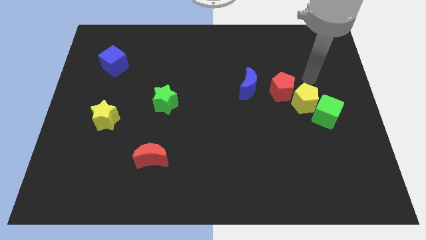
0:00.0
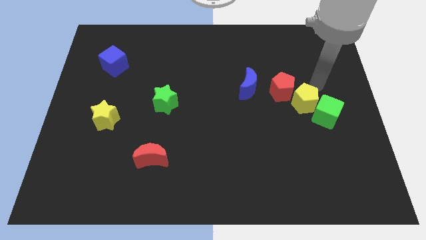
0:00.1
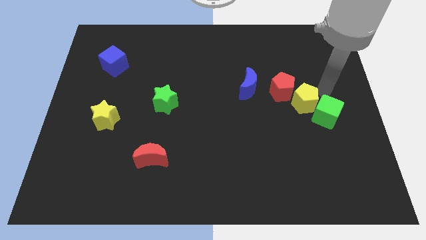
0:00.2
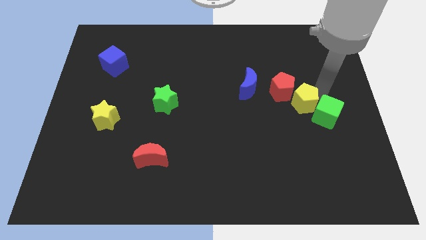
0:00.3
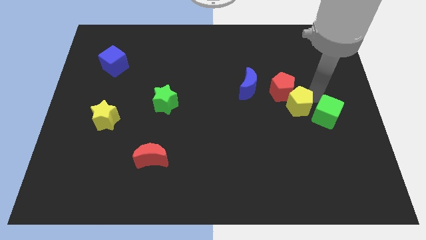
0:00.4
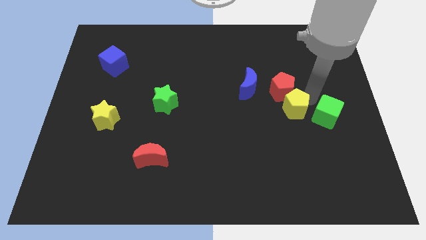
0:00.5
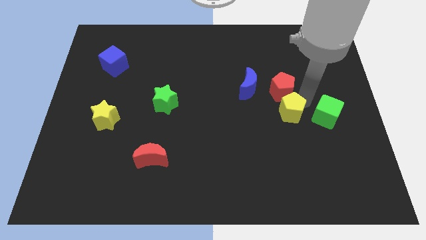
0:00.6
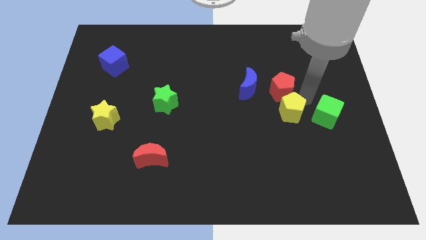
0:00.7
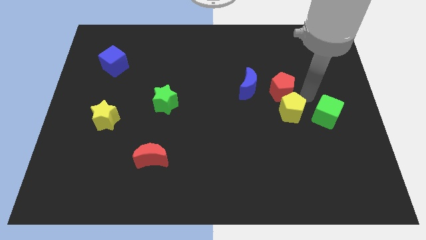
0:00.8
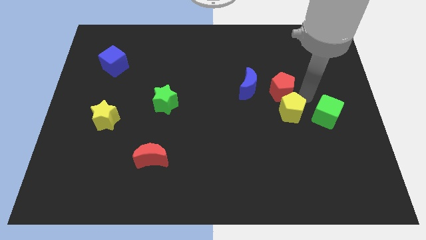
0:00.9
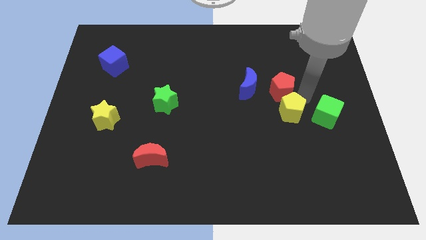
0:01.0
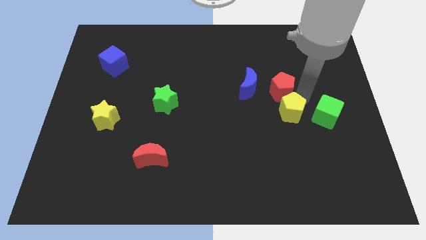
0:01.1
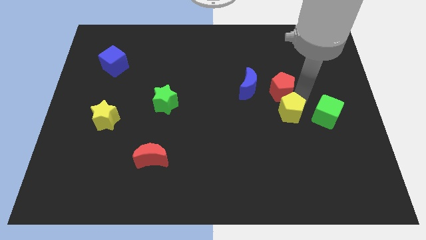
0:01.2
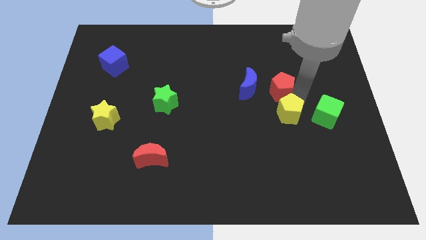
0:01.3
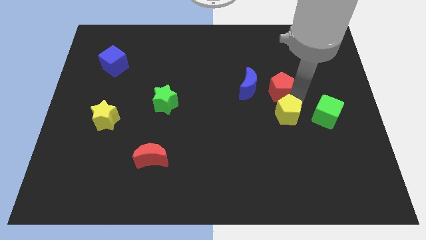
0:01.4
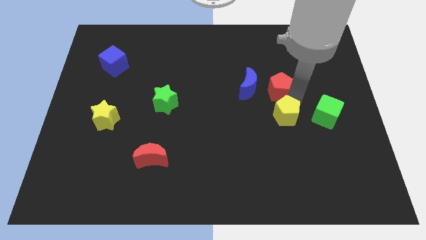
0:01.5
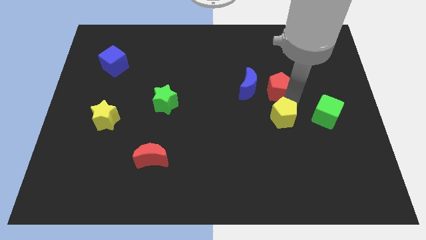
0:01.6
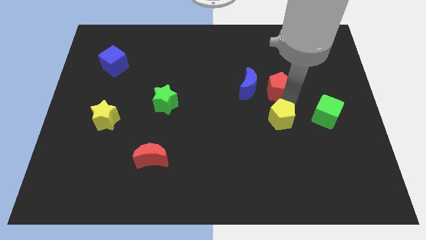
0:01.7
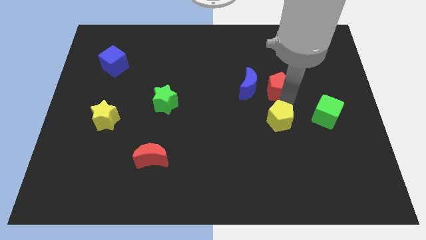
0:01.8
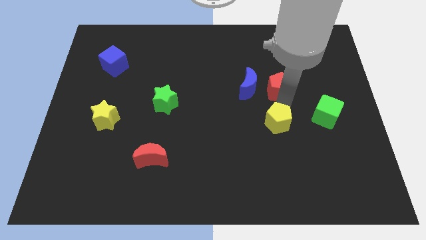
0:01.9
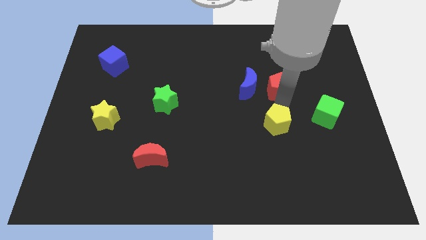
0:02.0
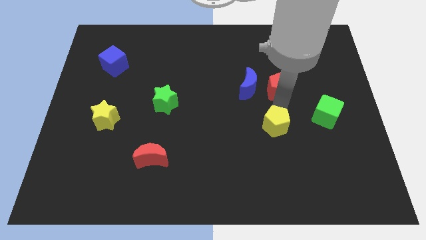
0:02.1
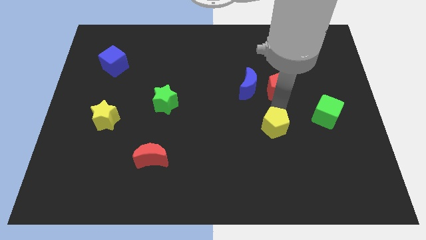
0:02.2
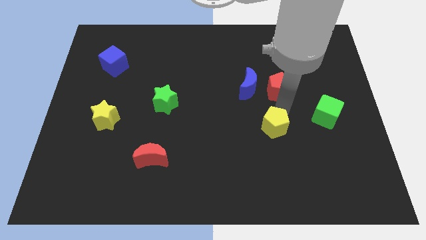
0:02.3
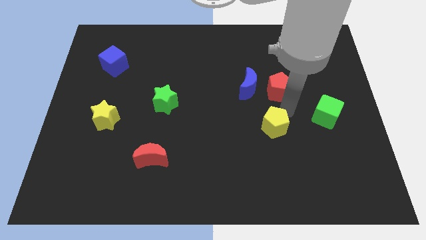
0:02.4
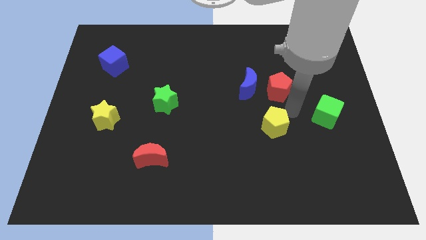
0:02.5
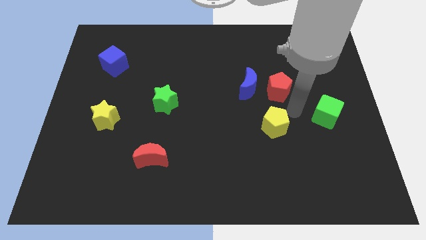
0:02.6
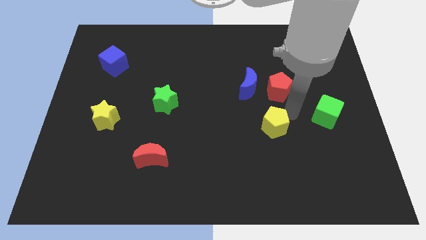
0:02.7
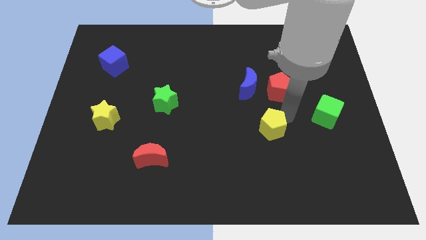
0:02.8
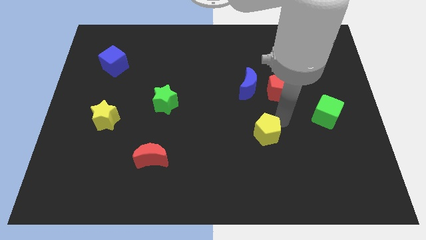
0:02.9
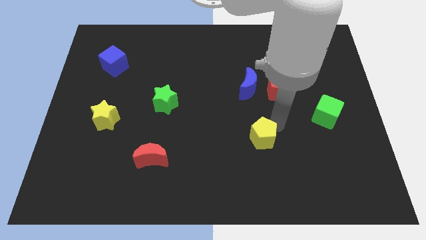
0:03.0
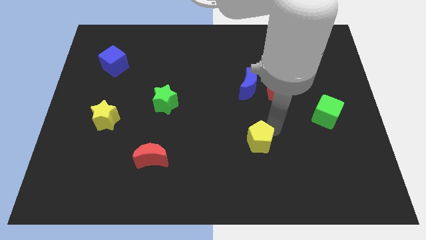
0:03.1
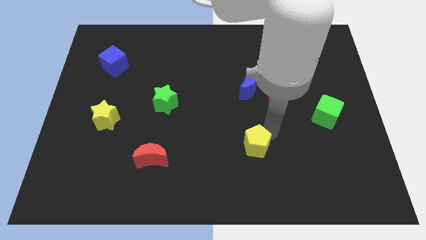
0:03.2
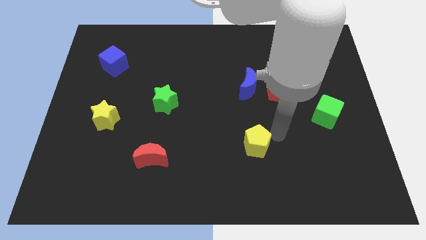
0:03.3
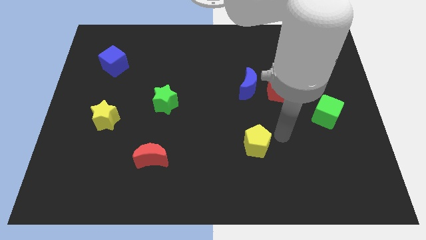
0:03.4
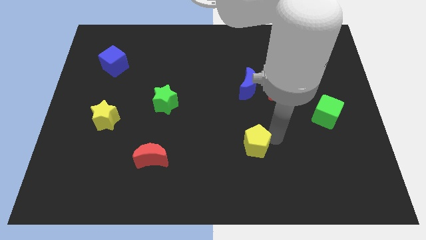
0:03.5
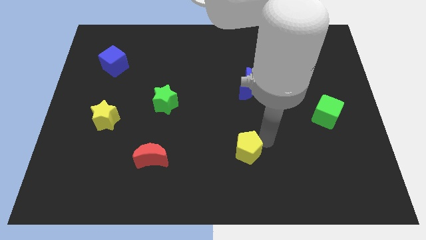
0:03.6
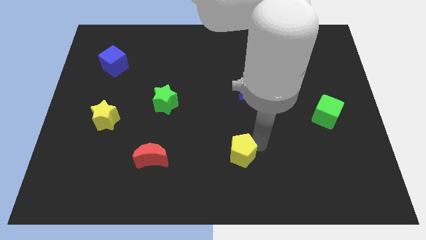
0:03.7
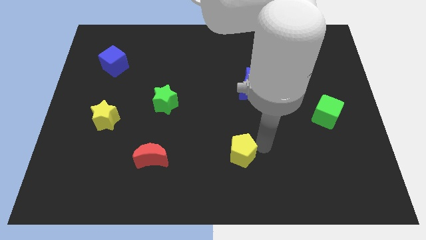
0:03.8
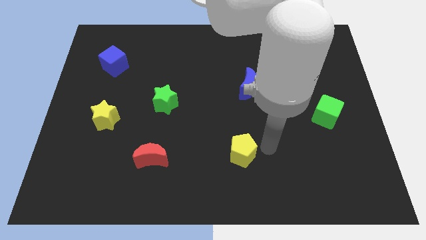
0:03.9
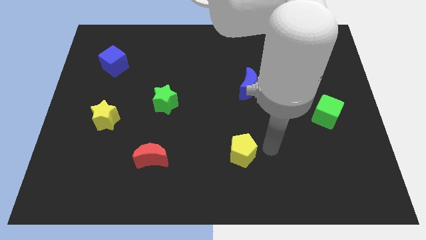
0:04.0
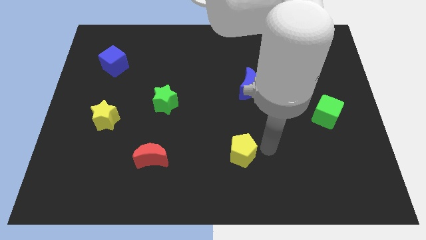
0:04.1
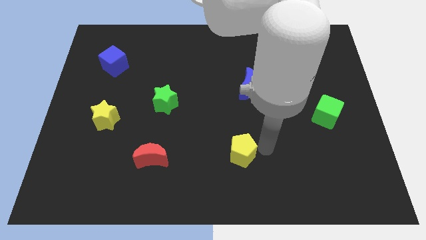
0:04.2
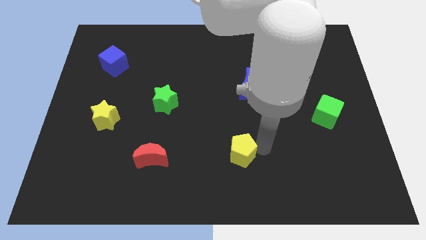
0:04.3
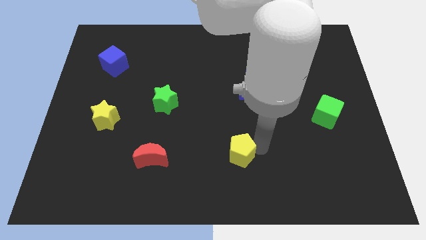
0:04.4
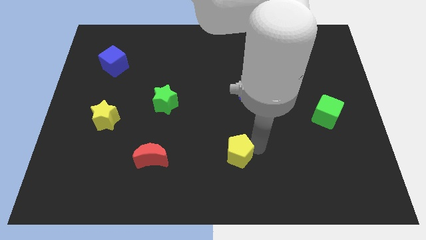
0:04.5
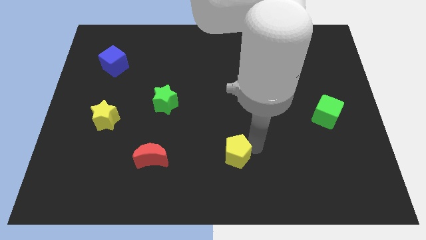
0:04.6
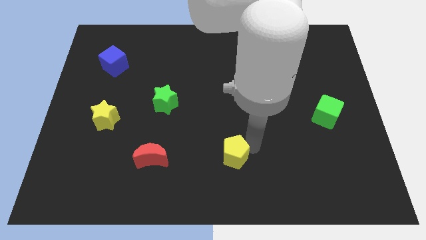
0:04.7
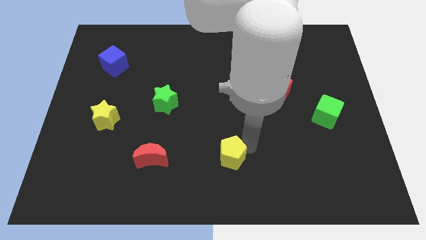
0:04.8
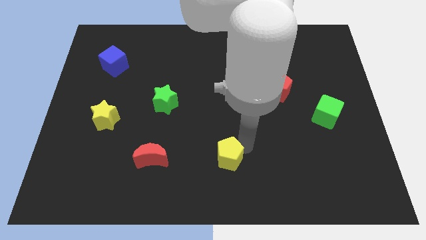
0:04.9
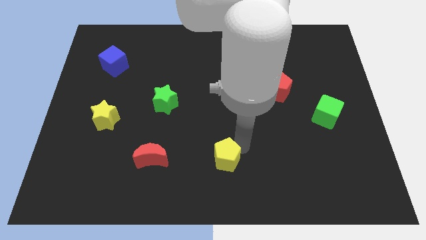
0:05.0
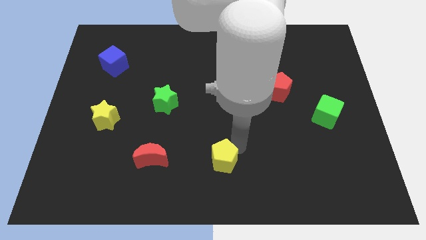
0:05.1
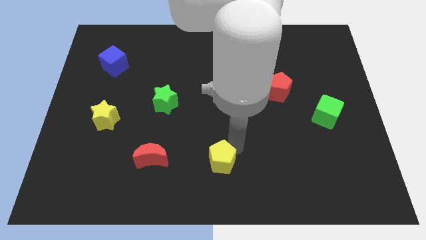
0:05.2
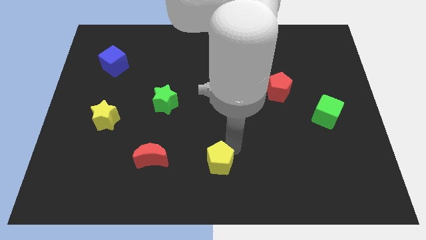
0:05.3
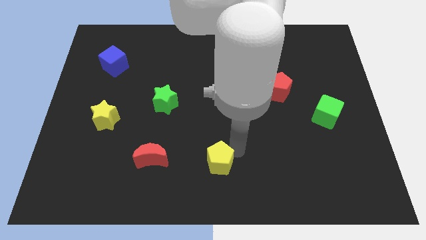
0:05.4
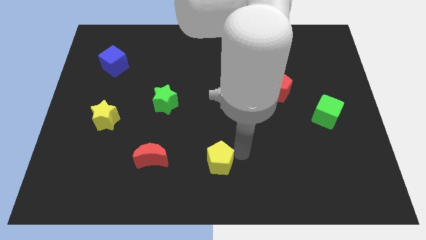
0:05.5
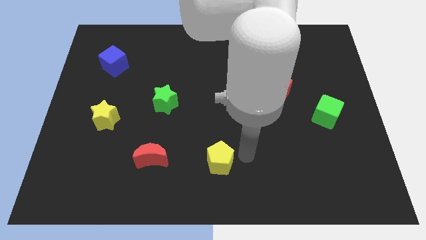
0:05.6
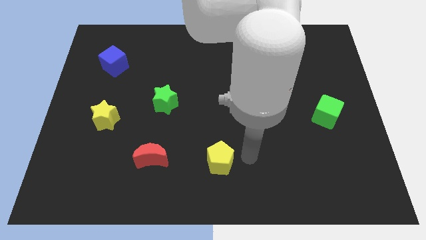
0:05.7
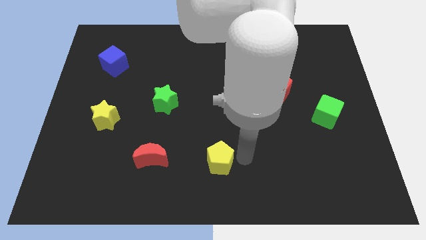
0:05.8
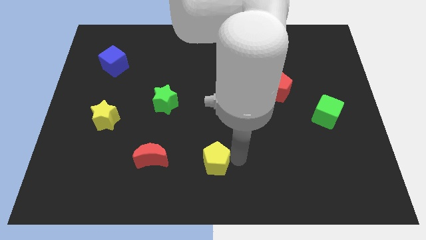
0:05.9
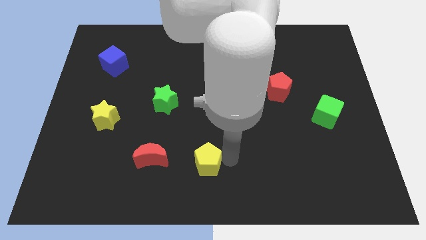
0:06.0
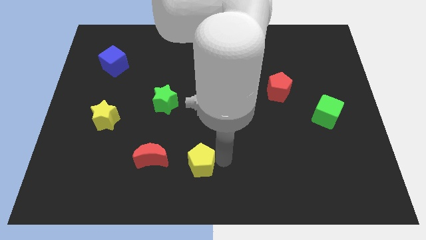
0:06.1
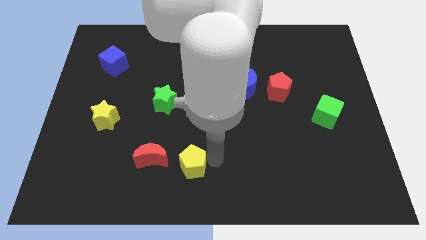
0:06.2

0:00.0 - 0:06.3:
put the yellow pentagon to the bottom right of the red moon

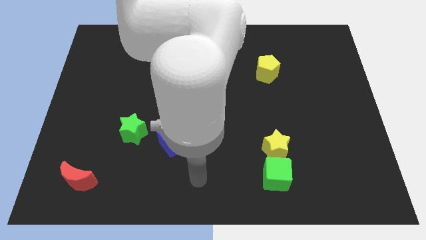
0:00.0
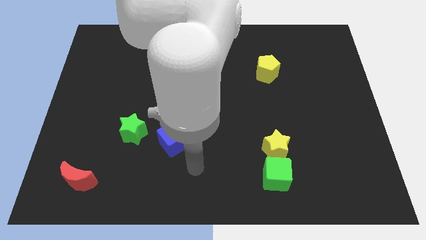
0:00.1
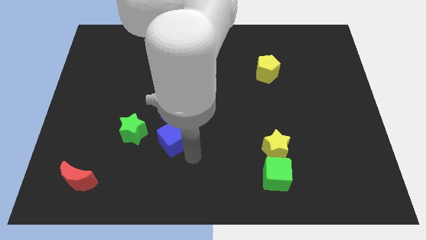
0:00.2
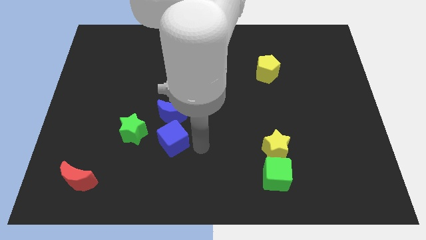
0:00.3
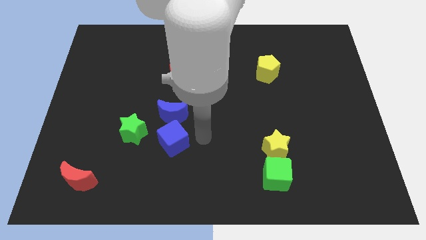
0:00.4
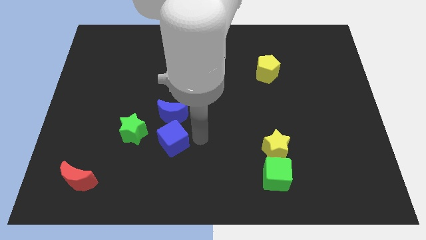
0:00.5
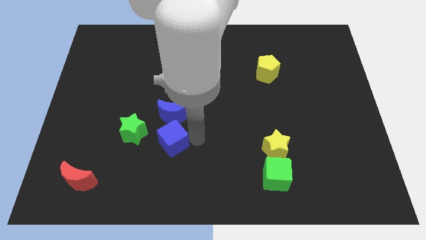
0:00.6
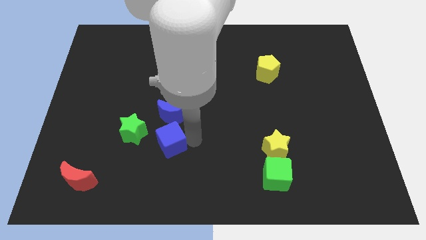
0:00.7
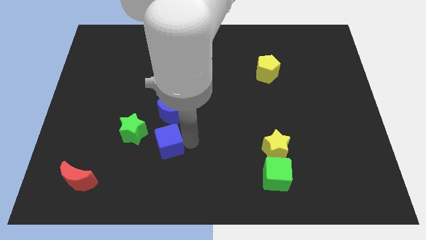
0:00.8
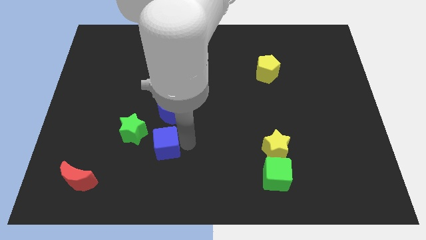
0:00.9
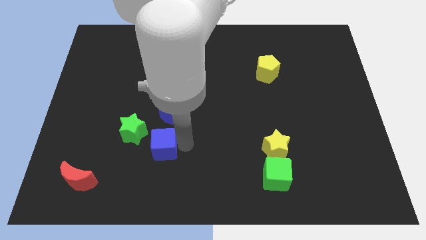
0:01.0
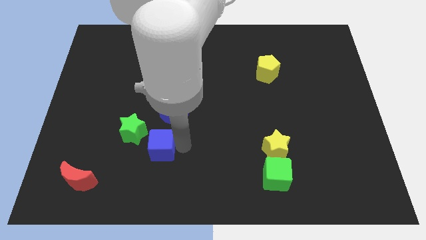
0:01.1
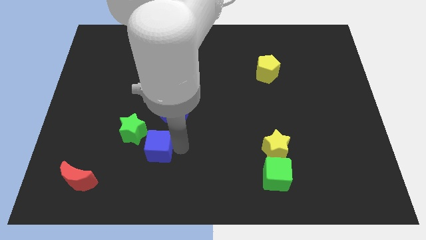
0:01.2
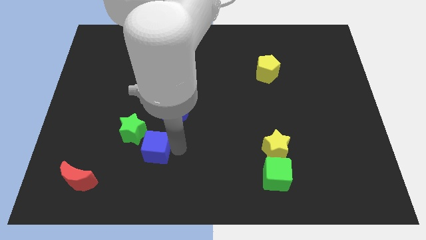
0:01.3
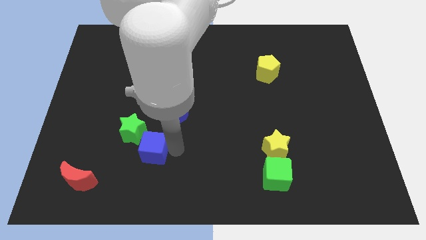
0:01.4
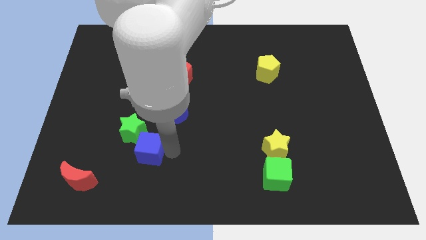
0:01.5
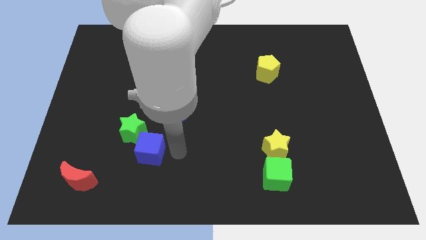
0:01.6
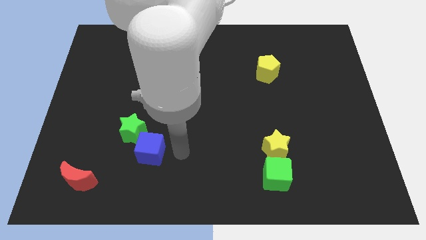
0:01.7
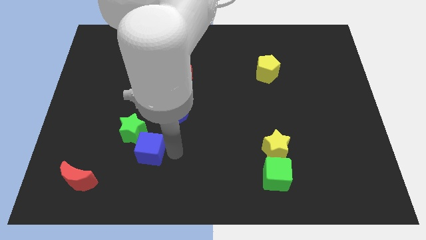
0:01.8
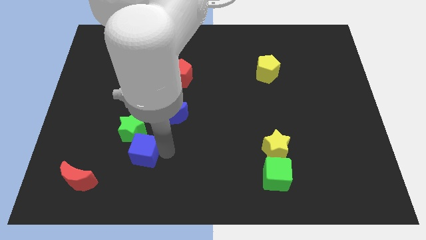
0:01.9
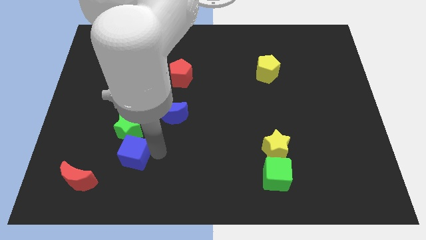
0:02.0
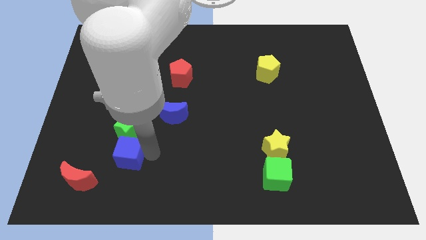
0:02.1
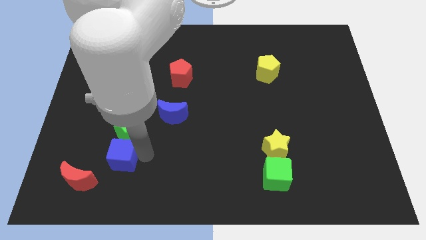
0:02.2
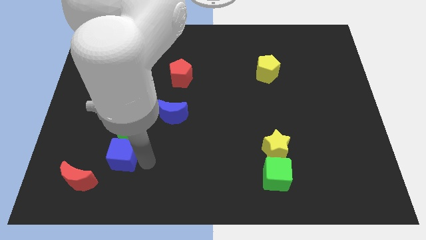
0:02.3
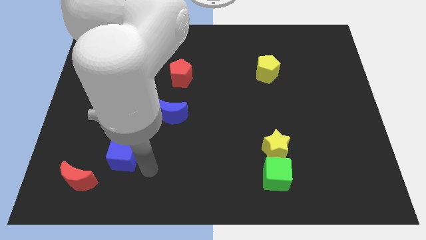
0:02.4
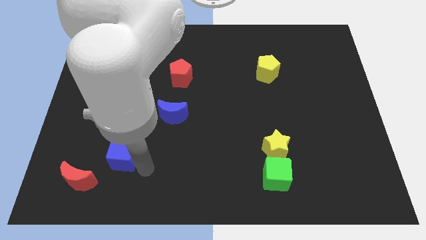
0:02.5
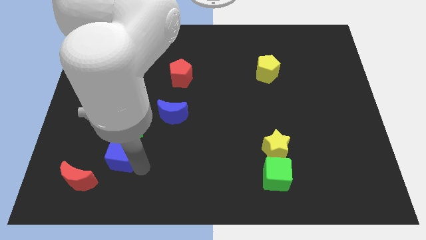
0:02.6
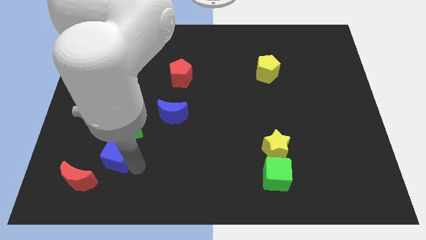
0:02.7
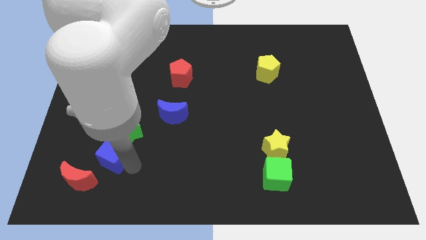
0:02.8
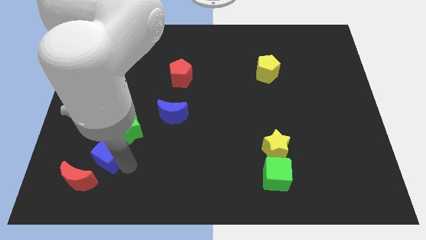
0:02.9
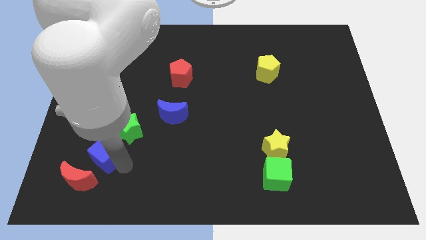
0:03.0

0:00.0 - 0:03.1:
put the blue cube above the red moon
